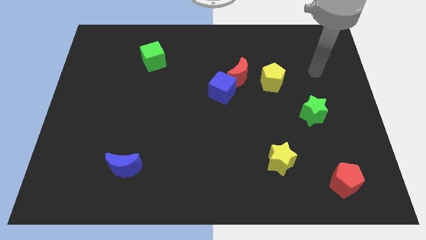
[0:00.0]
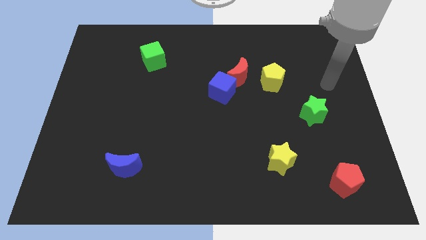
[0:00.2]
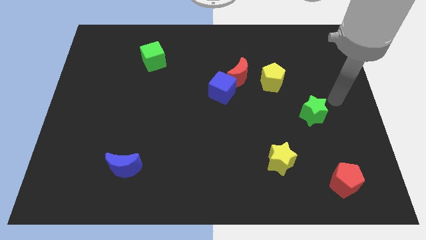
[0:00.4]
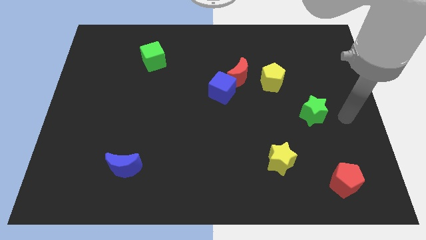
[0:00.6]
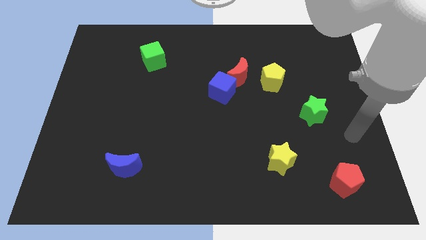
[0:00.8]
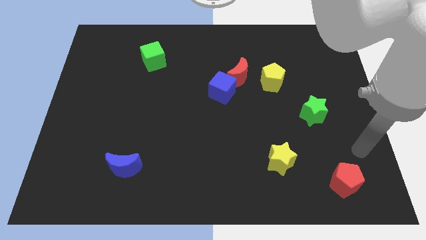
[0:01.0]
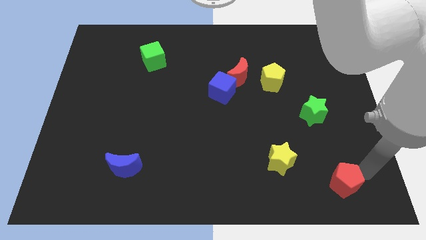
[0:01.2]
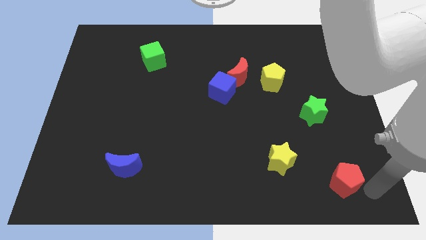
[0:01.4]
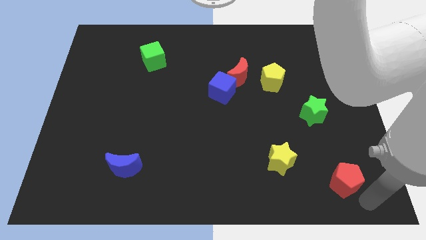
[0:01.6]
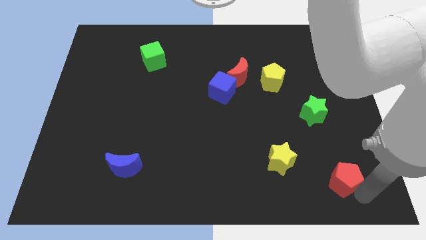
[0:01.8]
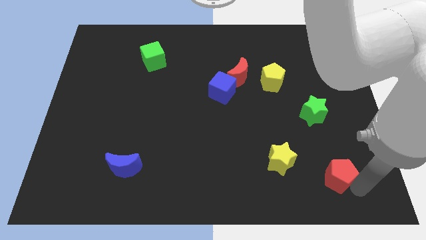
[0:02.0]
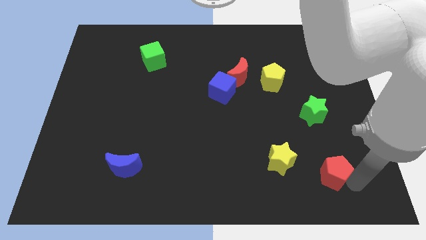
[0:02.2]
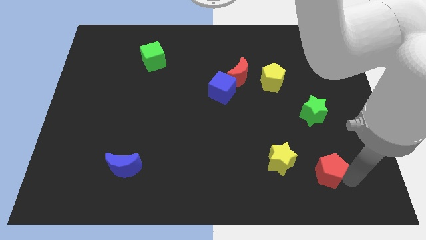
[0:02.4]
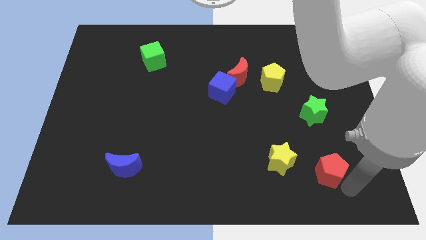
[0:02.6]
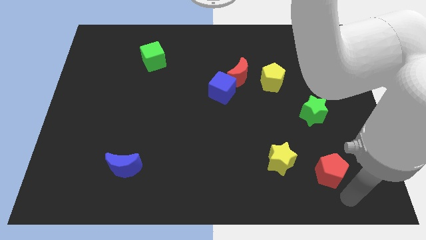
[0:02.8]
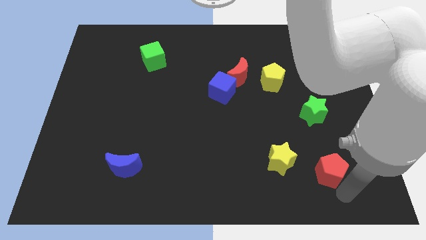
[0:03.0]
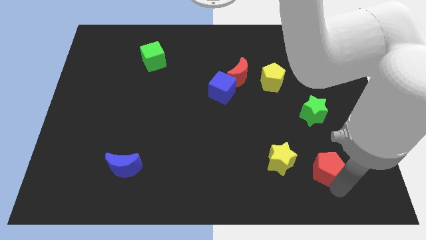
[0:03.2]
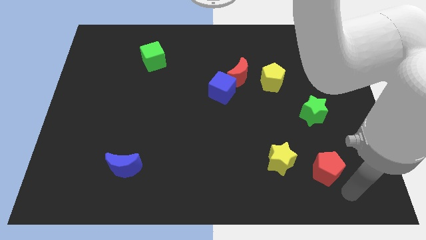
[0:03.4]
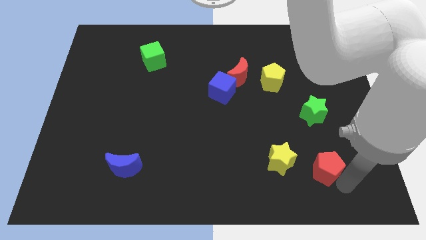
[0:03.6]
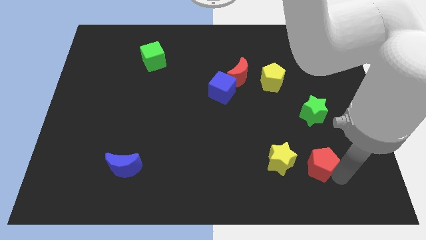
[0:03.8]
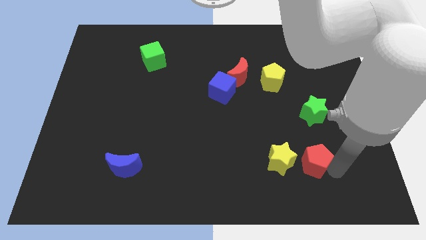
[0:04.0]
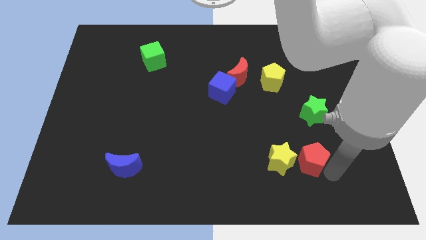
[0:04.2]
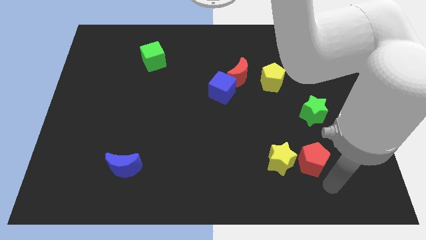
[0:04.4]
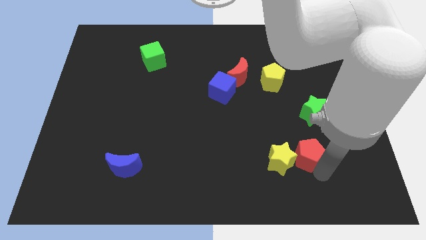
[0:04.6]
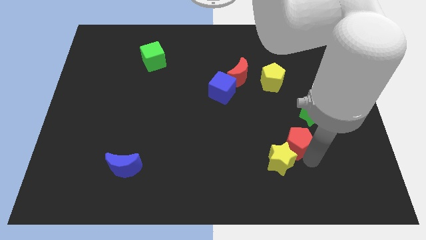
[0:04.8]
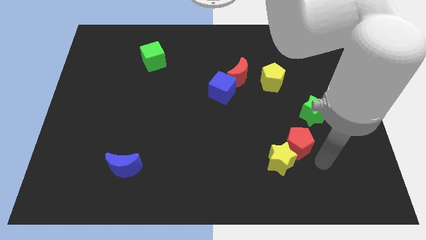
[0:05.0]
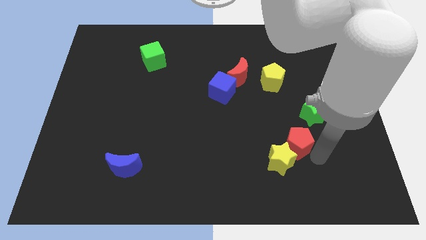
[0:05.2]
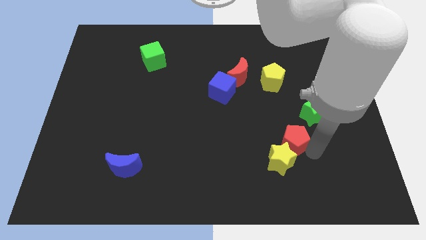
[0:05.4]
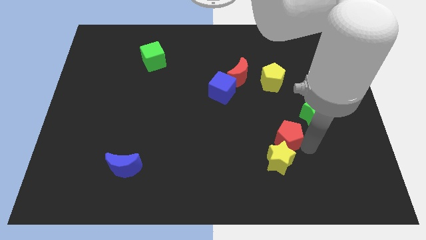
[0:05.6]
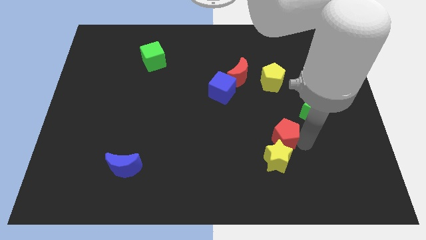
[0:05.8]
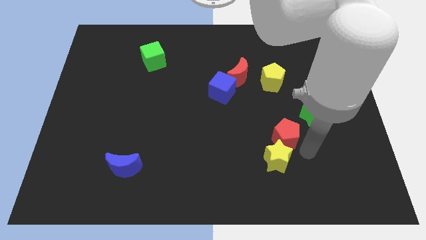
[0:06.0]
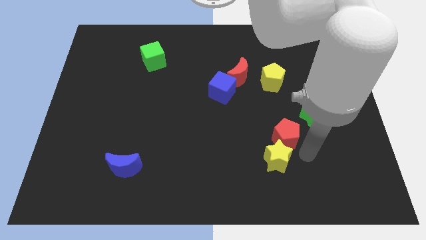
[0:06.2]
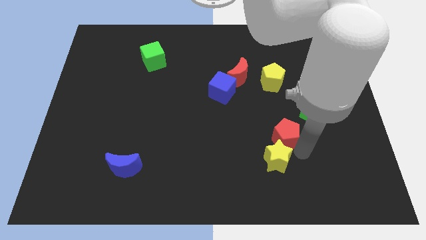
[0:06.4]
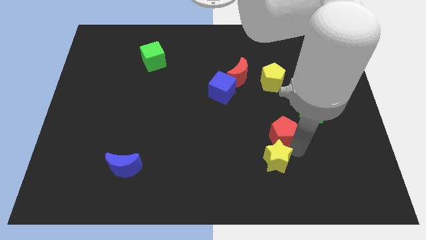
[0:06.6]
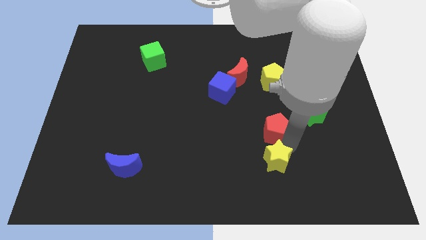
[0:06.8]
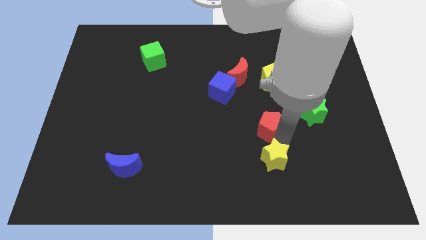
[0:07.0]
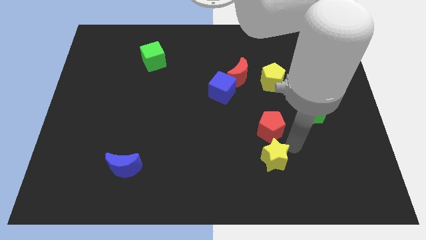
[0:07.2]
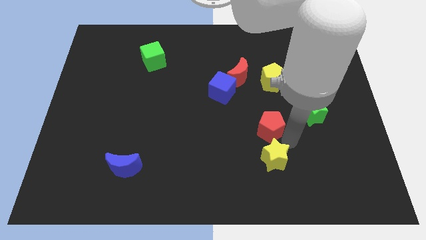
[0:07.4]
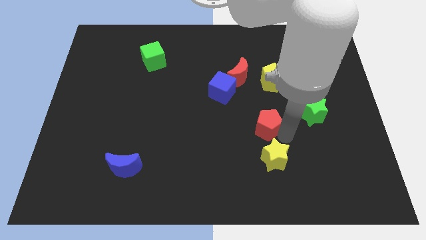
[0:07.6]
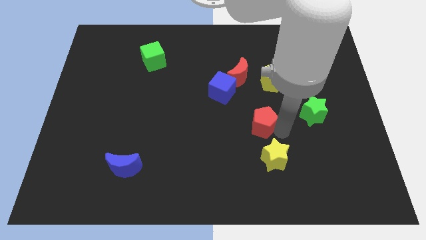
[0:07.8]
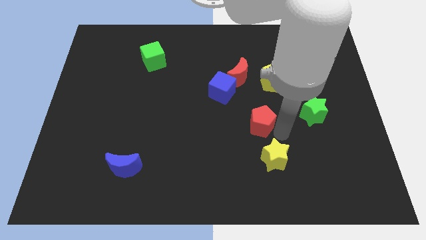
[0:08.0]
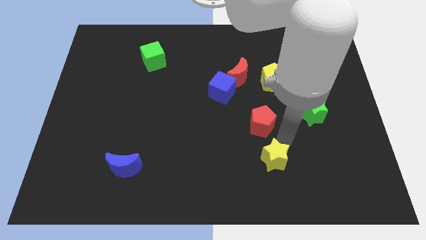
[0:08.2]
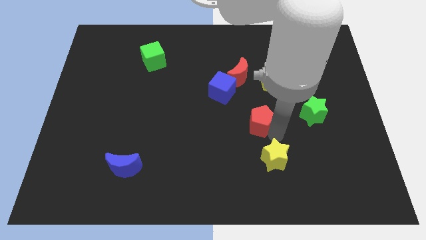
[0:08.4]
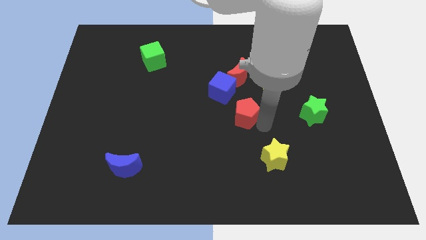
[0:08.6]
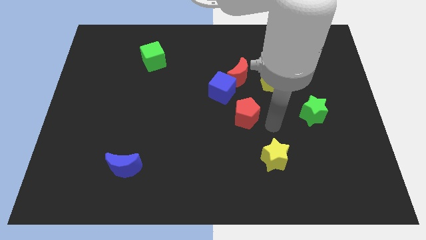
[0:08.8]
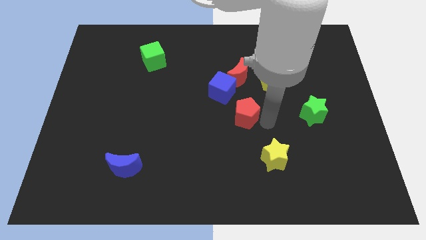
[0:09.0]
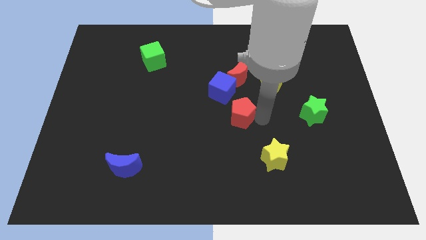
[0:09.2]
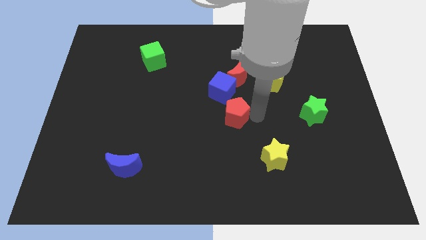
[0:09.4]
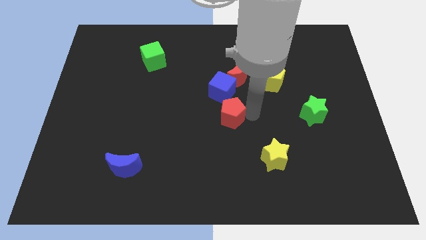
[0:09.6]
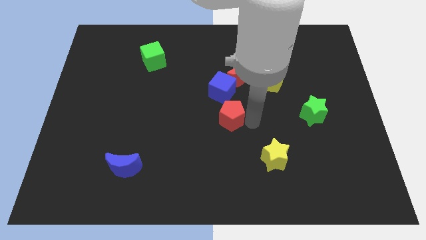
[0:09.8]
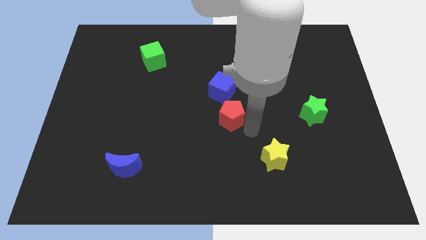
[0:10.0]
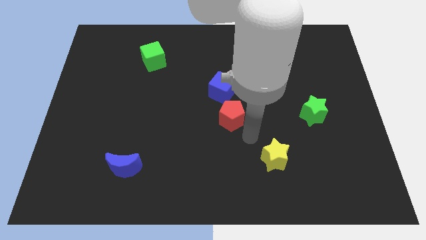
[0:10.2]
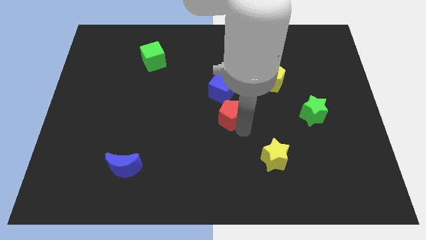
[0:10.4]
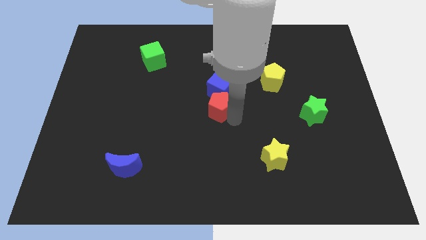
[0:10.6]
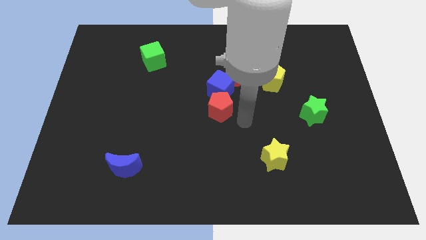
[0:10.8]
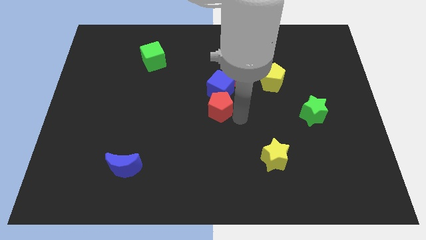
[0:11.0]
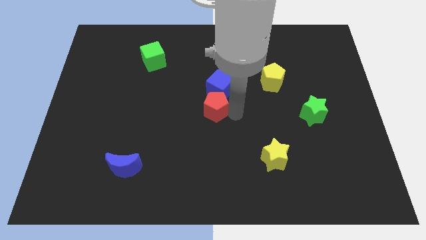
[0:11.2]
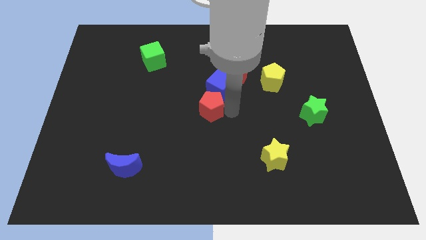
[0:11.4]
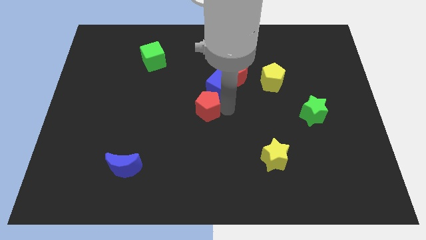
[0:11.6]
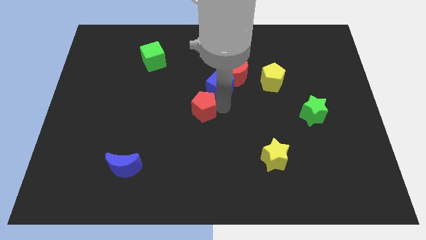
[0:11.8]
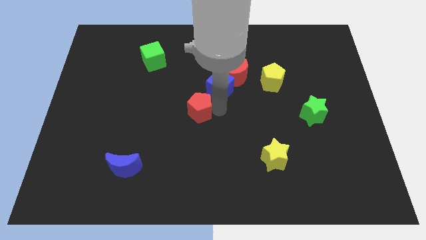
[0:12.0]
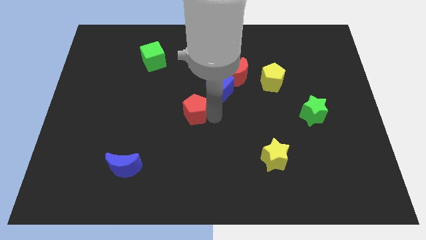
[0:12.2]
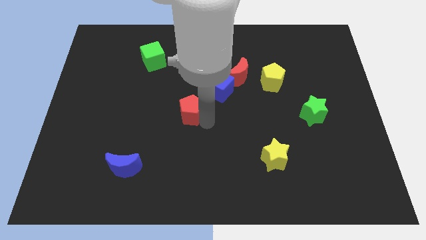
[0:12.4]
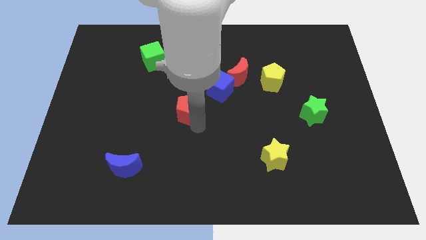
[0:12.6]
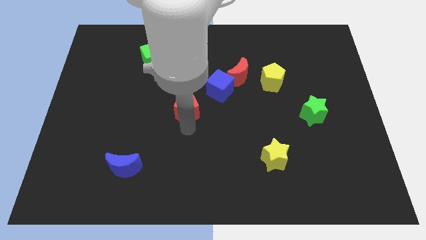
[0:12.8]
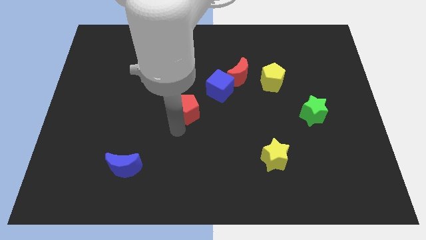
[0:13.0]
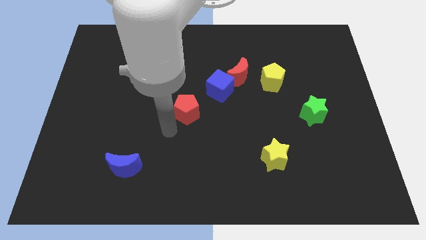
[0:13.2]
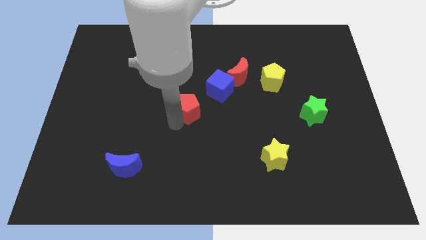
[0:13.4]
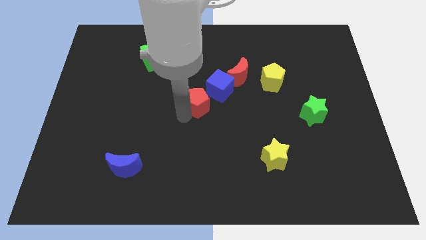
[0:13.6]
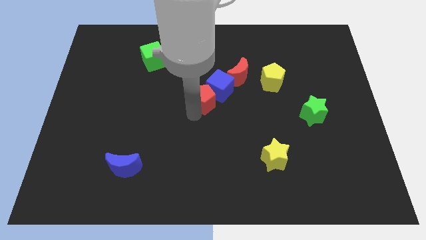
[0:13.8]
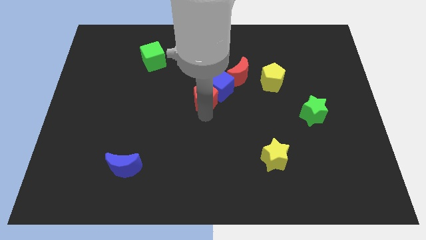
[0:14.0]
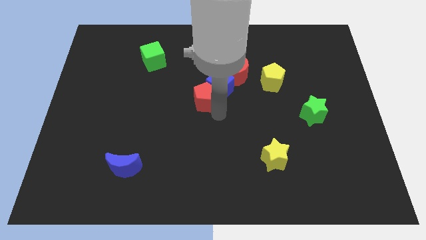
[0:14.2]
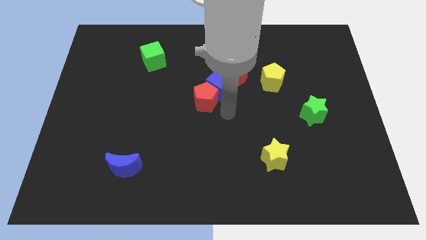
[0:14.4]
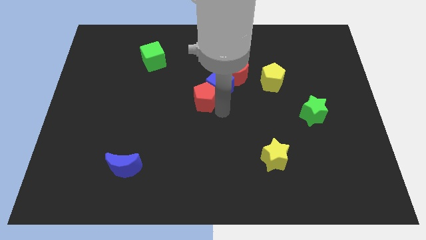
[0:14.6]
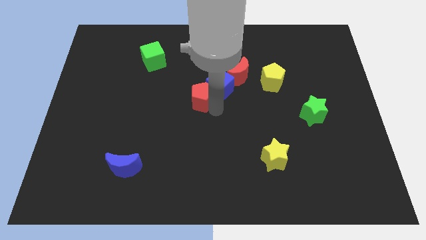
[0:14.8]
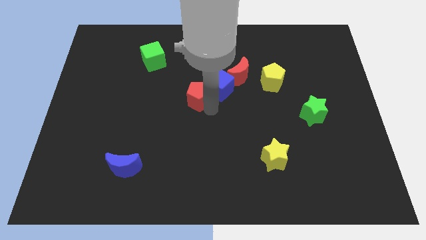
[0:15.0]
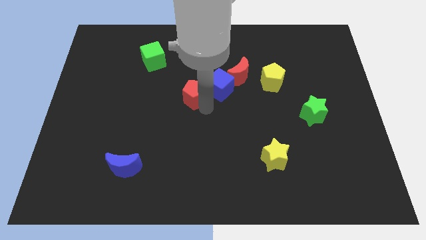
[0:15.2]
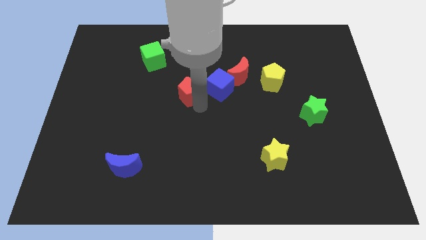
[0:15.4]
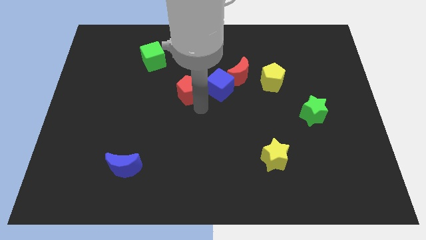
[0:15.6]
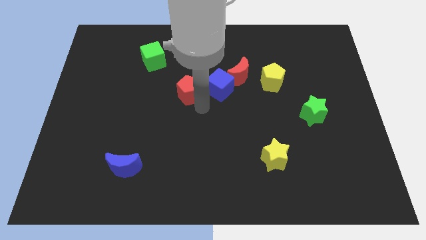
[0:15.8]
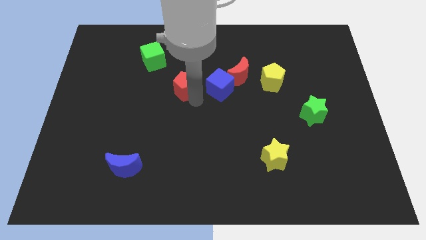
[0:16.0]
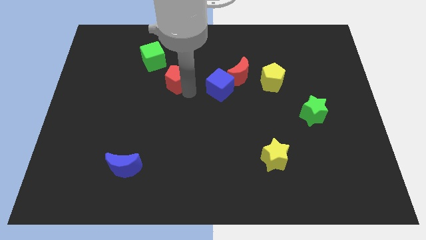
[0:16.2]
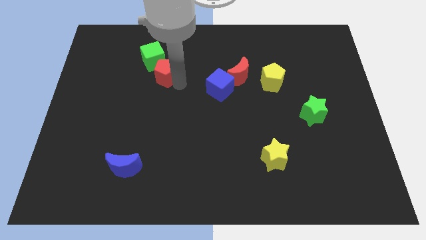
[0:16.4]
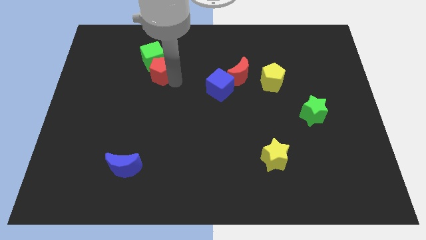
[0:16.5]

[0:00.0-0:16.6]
move the red pentagon next to the green cube
